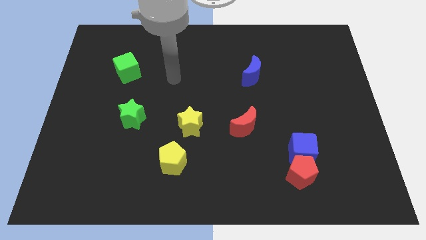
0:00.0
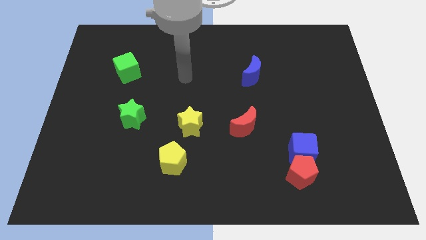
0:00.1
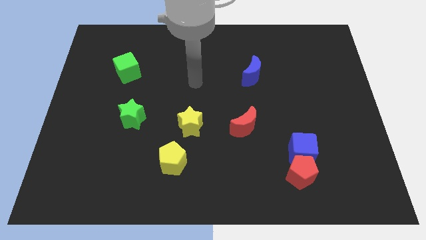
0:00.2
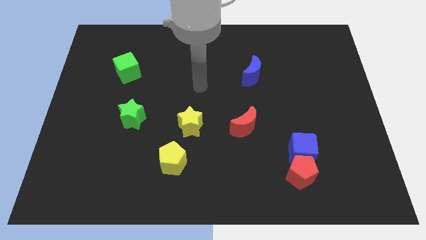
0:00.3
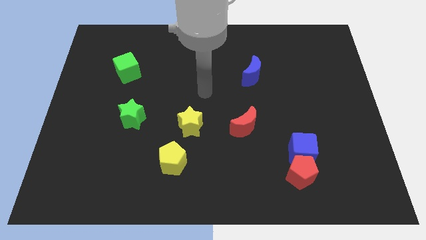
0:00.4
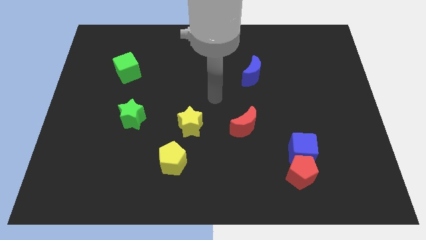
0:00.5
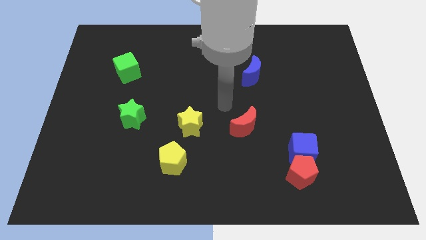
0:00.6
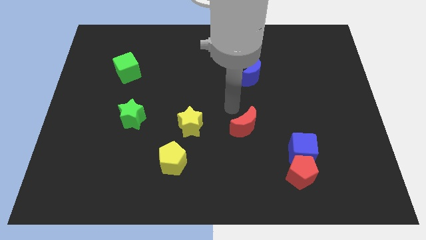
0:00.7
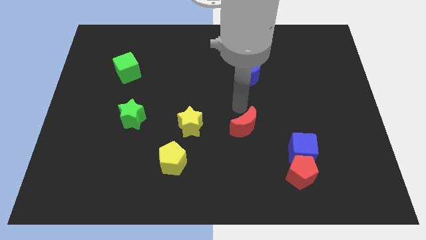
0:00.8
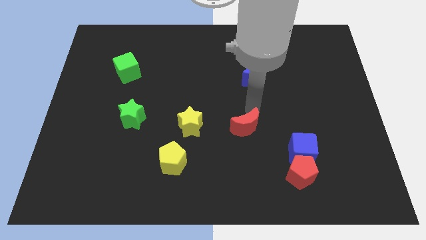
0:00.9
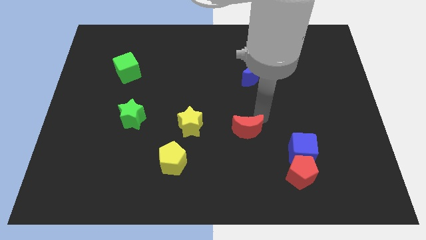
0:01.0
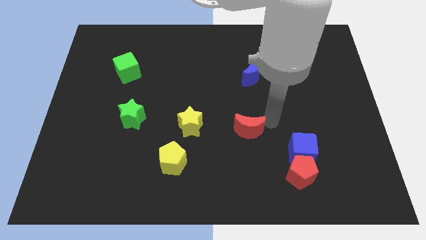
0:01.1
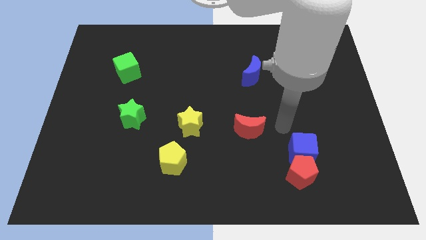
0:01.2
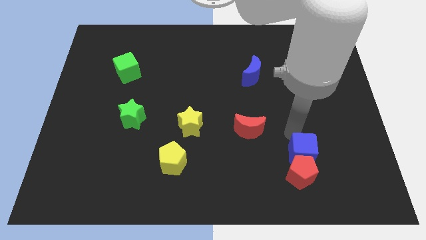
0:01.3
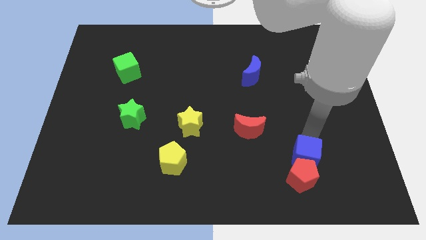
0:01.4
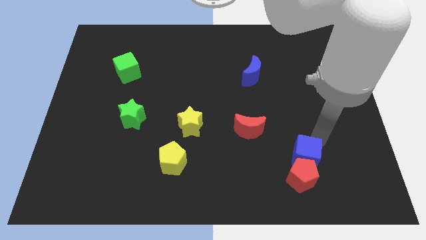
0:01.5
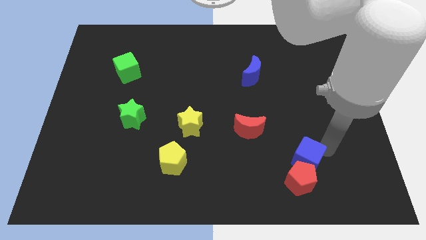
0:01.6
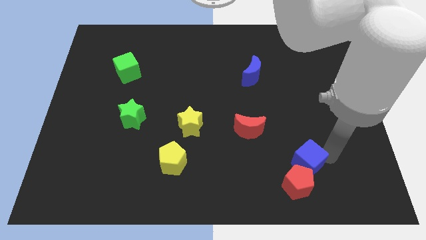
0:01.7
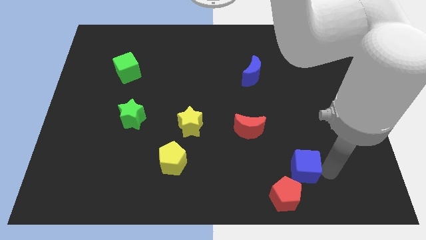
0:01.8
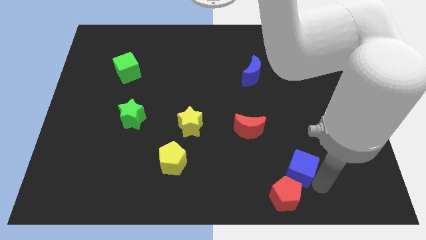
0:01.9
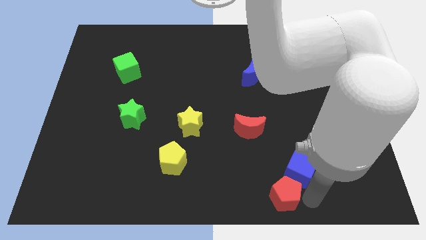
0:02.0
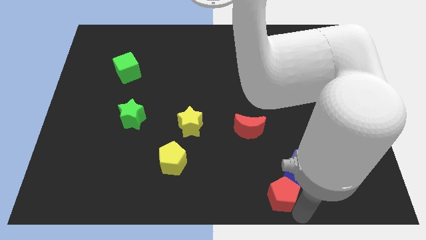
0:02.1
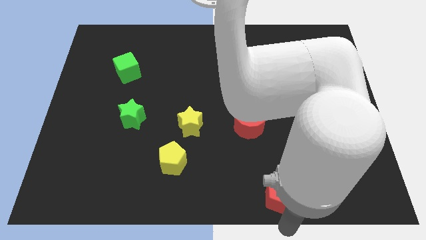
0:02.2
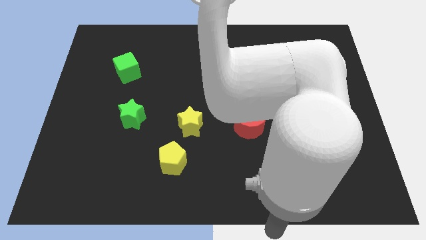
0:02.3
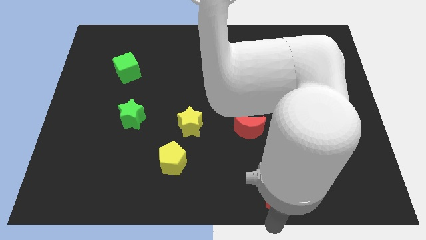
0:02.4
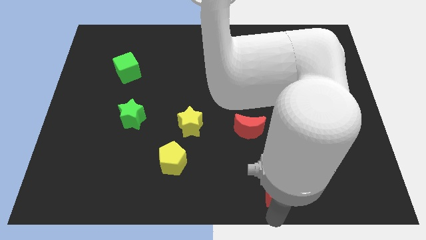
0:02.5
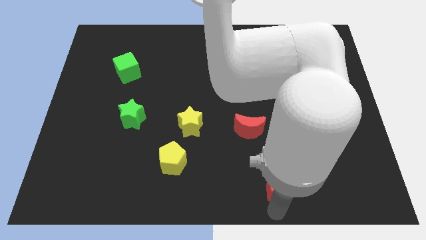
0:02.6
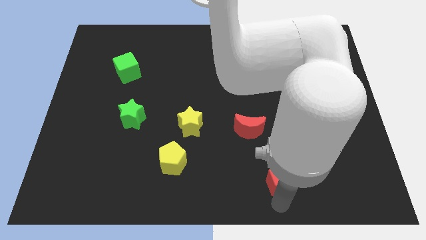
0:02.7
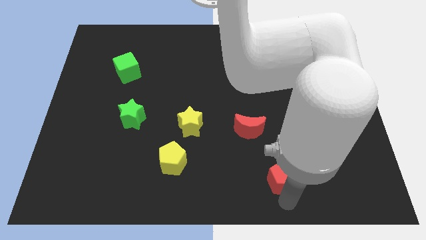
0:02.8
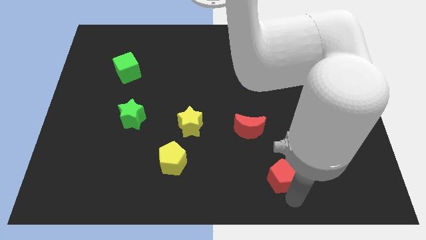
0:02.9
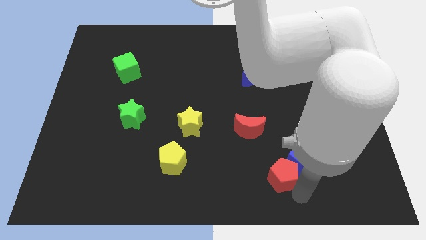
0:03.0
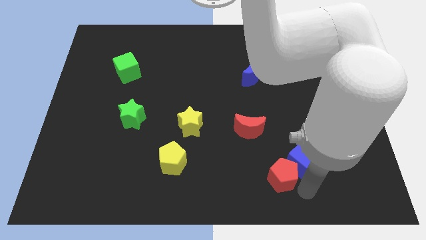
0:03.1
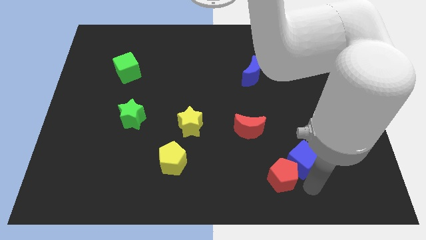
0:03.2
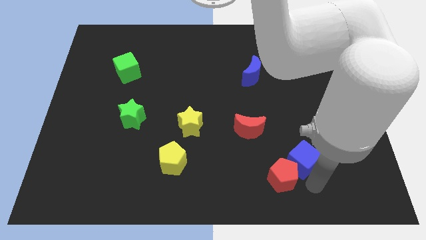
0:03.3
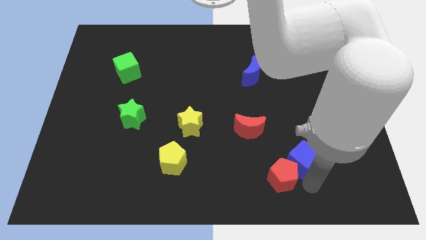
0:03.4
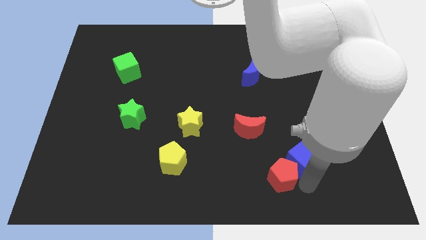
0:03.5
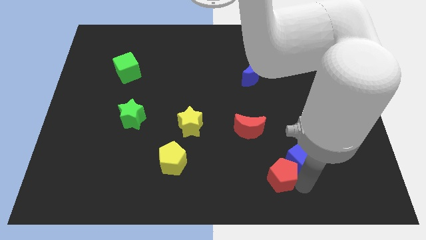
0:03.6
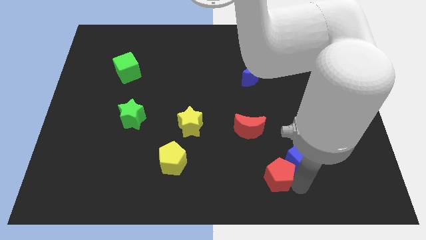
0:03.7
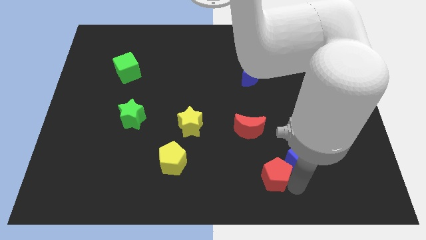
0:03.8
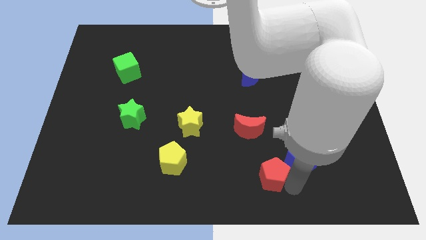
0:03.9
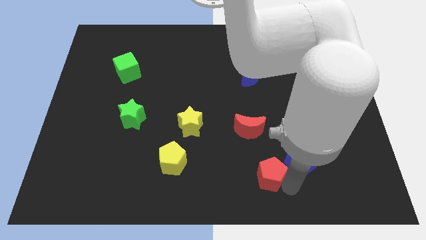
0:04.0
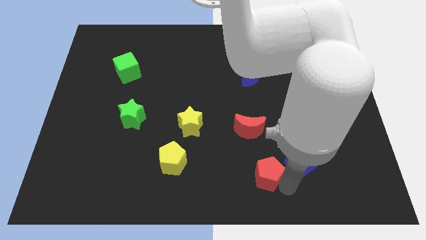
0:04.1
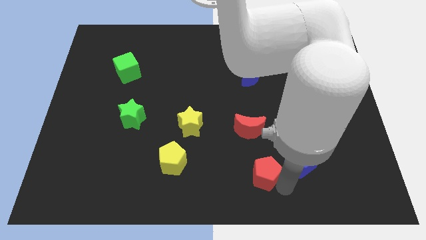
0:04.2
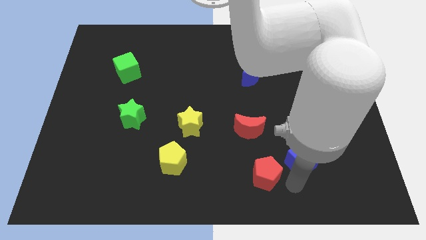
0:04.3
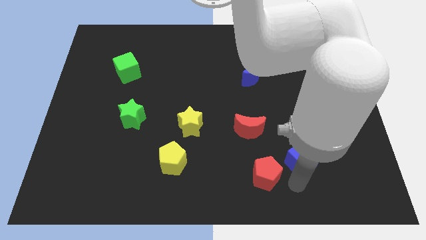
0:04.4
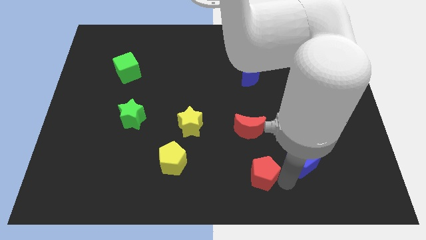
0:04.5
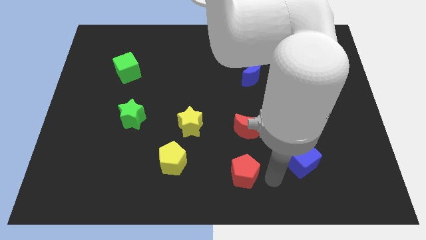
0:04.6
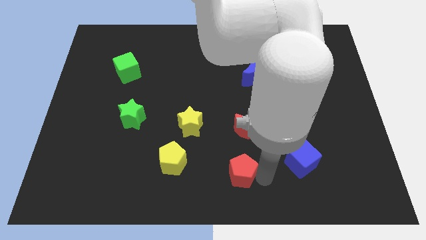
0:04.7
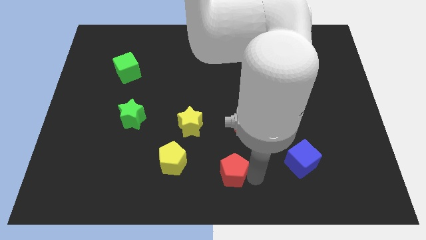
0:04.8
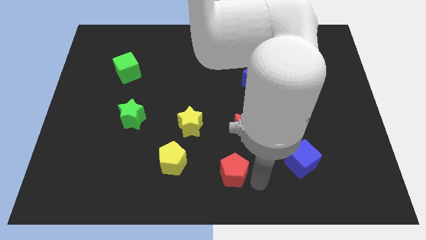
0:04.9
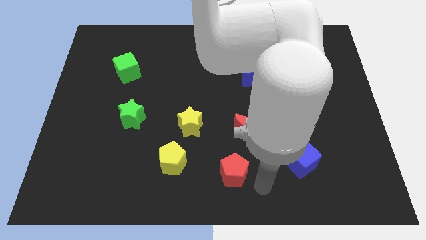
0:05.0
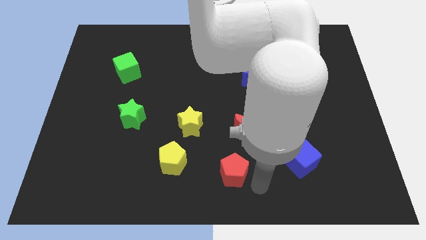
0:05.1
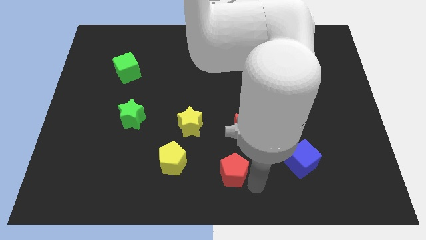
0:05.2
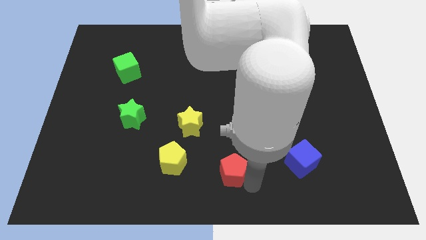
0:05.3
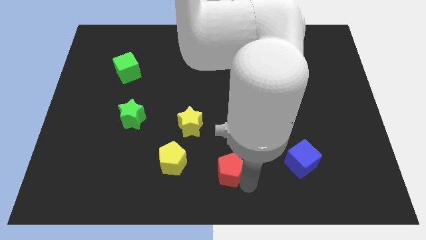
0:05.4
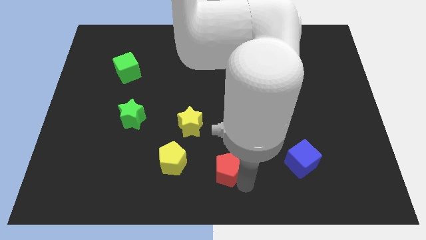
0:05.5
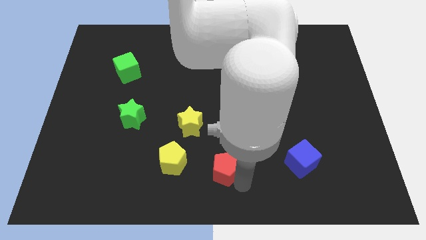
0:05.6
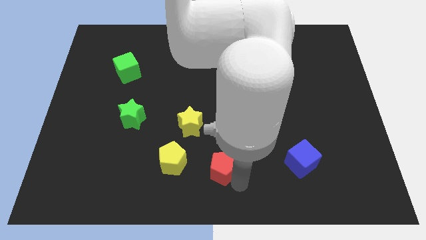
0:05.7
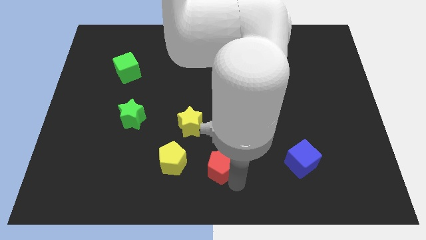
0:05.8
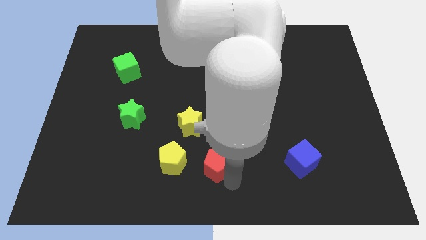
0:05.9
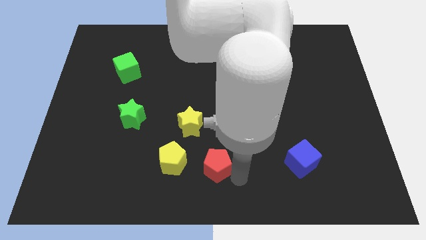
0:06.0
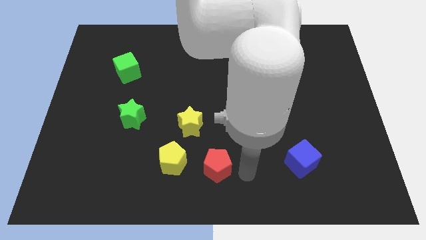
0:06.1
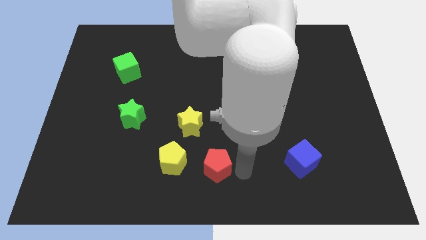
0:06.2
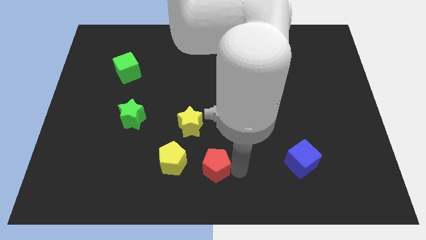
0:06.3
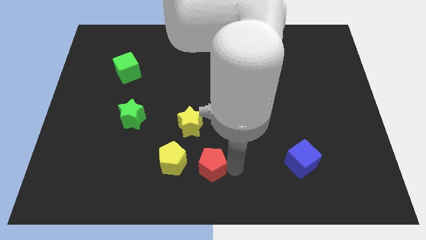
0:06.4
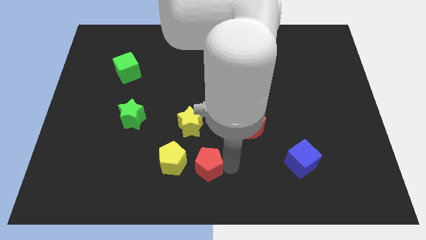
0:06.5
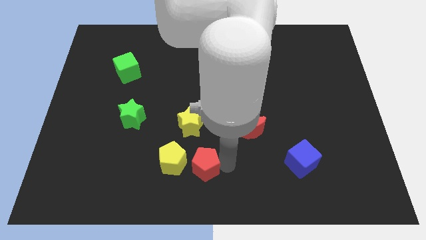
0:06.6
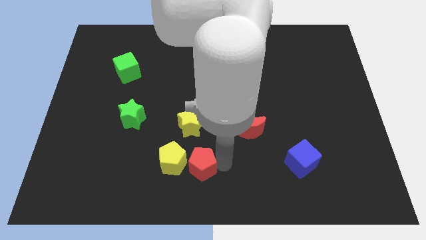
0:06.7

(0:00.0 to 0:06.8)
put the red pentagon close to the yellow pentagon
